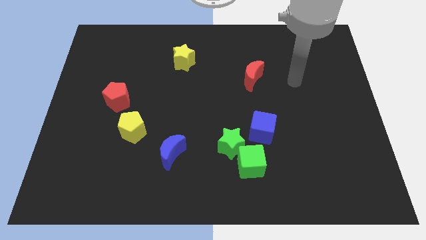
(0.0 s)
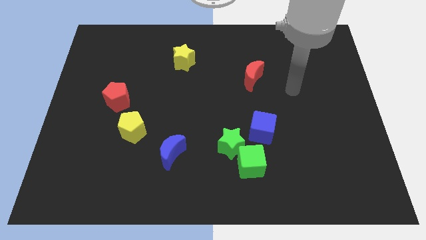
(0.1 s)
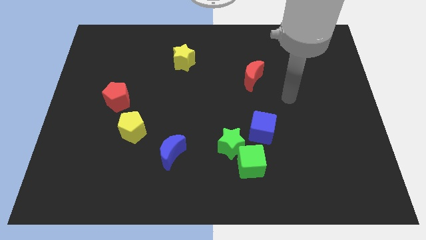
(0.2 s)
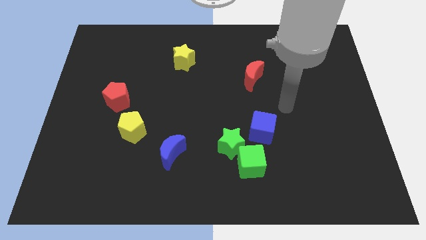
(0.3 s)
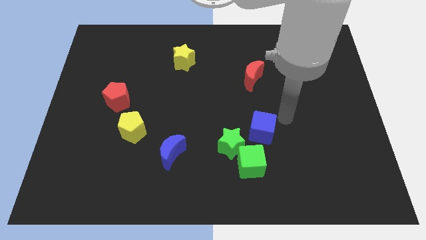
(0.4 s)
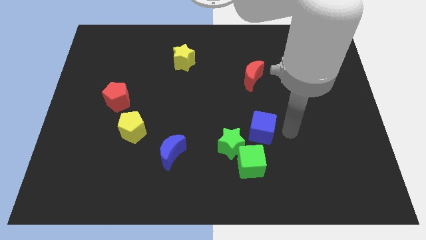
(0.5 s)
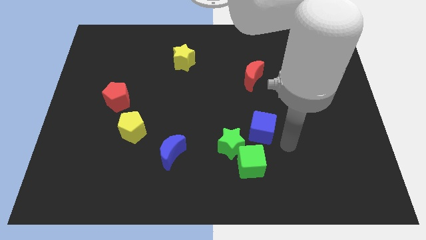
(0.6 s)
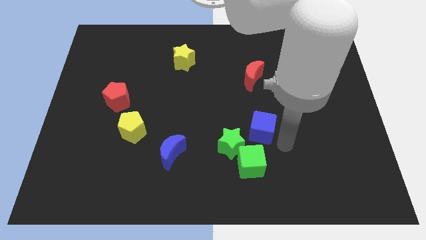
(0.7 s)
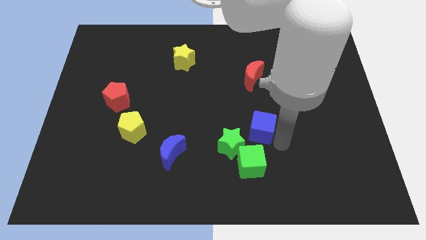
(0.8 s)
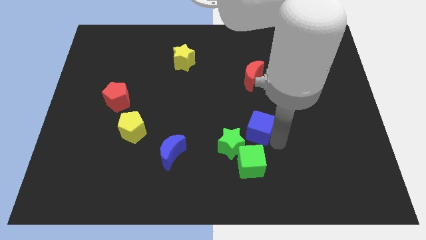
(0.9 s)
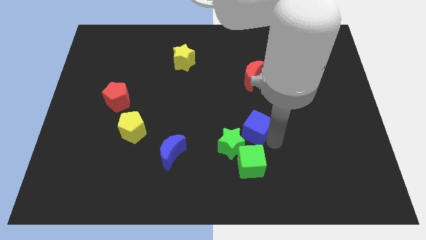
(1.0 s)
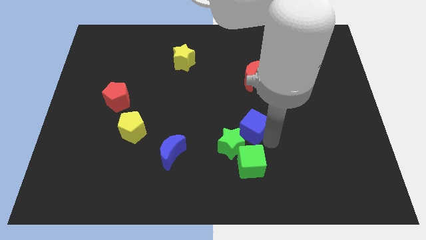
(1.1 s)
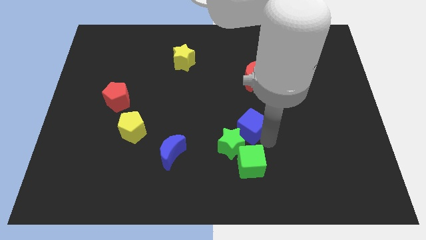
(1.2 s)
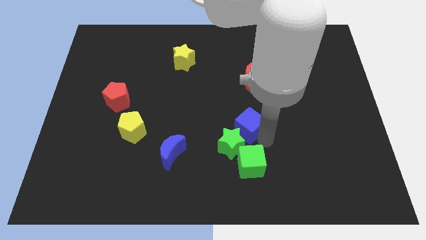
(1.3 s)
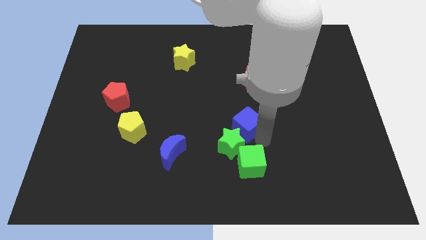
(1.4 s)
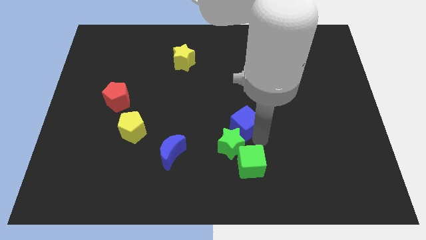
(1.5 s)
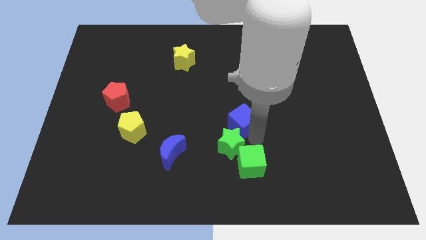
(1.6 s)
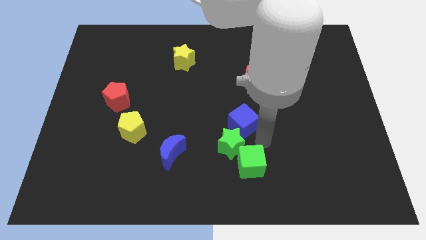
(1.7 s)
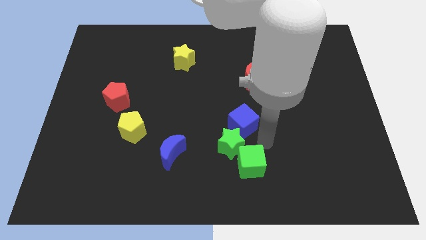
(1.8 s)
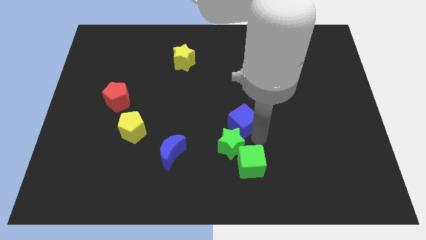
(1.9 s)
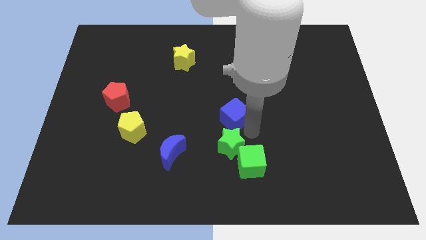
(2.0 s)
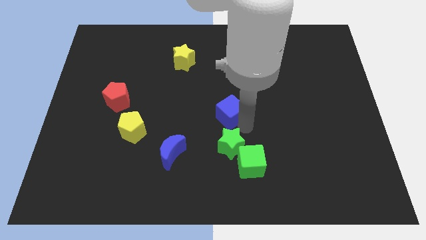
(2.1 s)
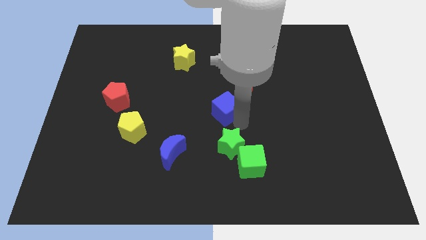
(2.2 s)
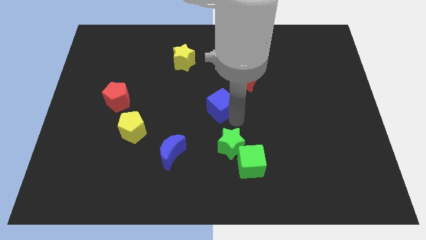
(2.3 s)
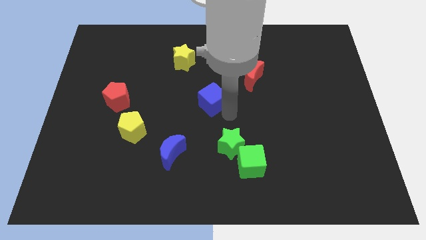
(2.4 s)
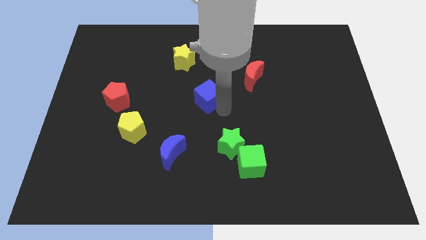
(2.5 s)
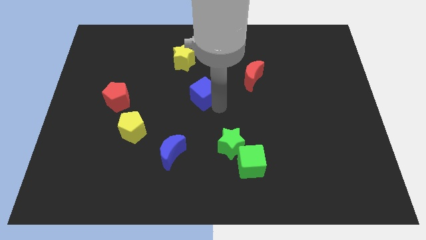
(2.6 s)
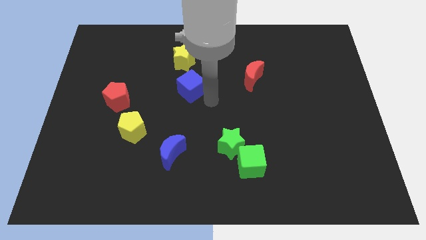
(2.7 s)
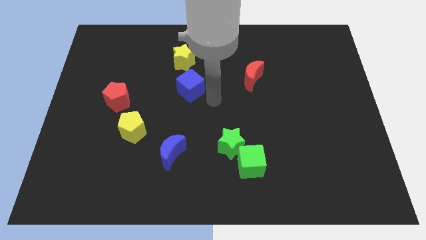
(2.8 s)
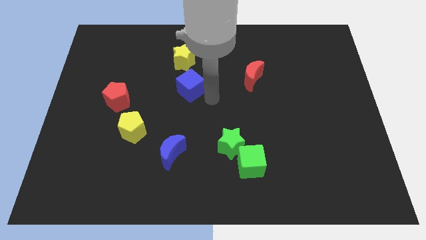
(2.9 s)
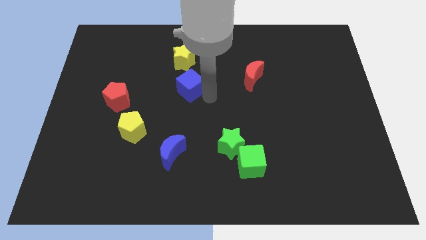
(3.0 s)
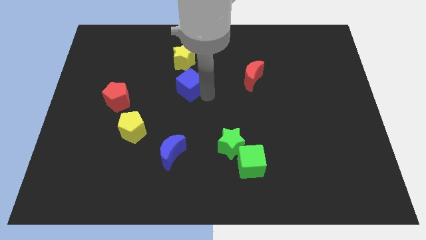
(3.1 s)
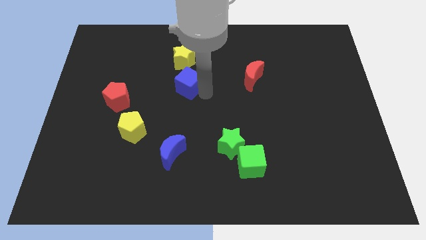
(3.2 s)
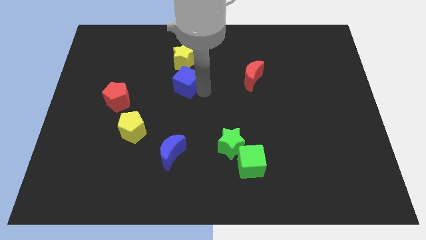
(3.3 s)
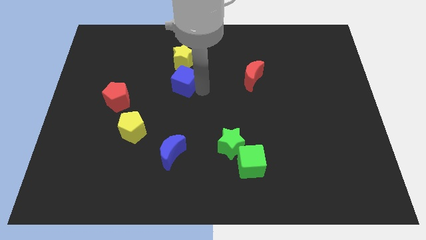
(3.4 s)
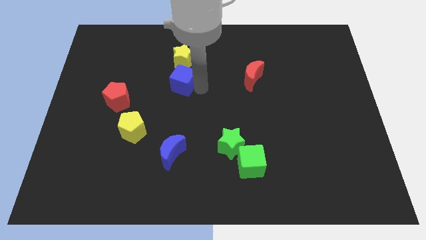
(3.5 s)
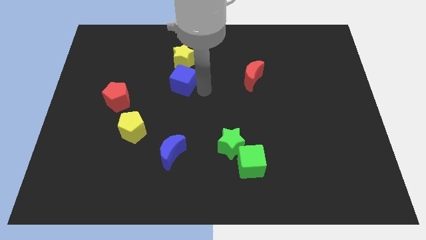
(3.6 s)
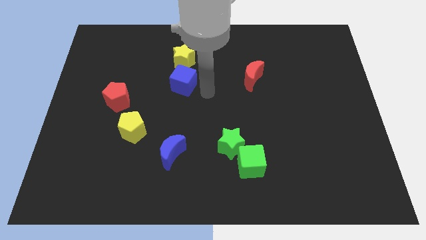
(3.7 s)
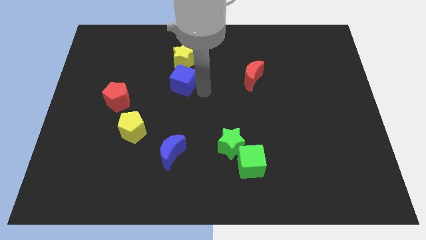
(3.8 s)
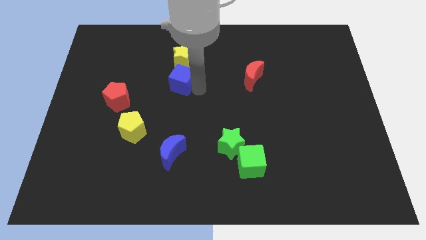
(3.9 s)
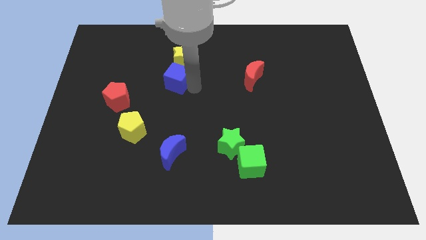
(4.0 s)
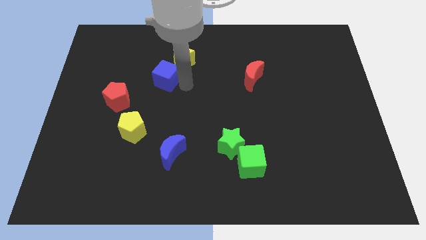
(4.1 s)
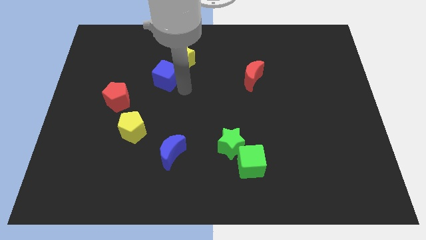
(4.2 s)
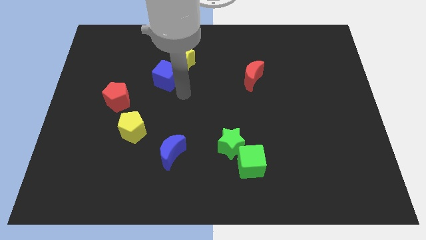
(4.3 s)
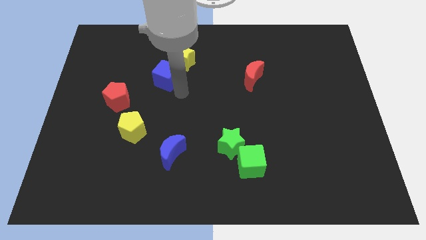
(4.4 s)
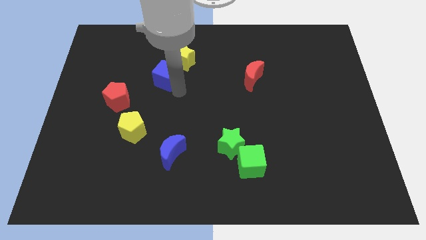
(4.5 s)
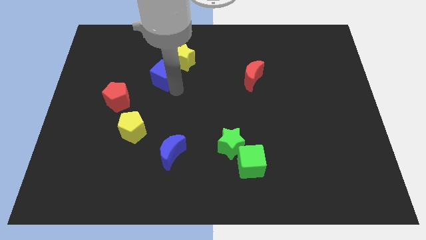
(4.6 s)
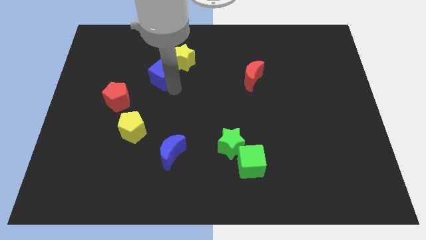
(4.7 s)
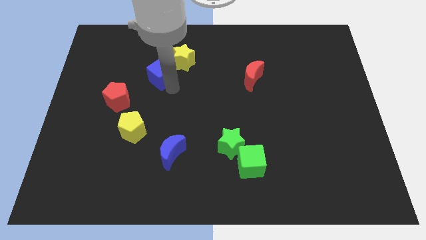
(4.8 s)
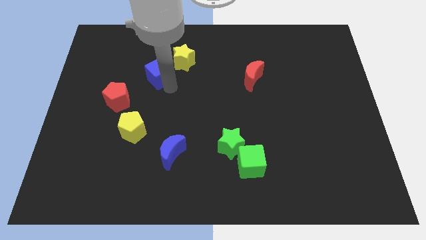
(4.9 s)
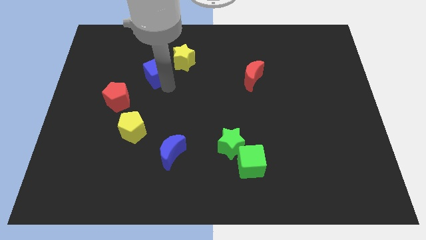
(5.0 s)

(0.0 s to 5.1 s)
push the blue cube just left of the yellow star

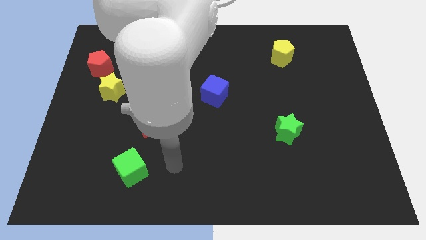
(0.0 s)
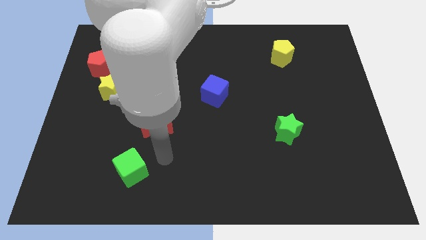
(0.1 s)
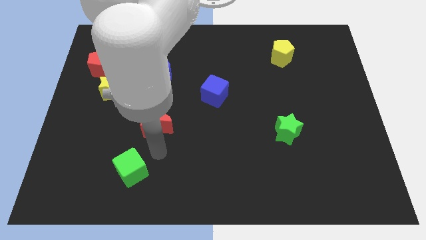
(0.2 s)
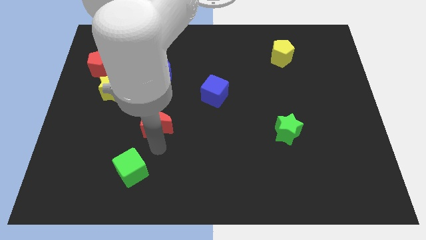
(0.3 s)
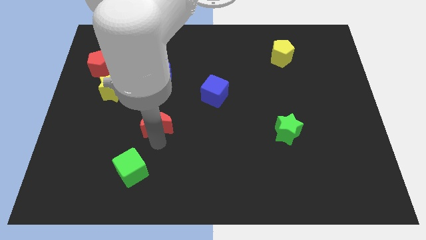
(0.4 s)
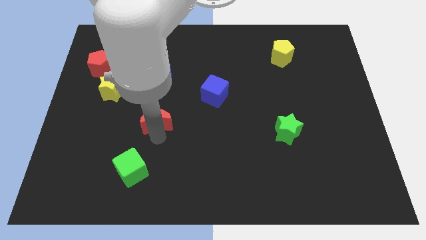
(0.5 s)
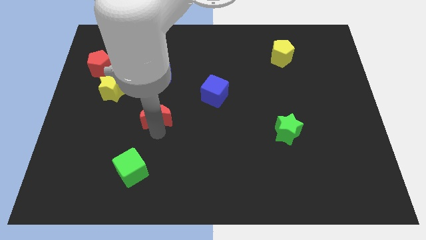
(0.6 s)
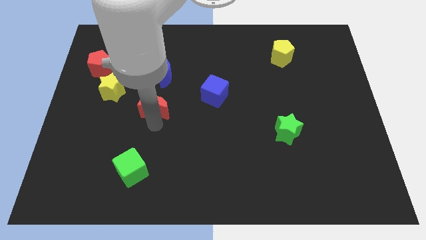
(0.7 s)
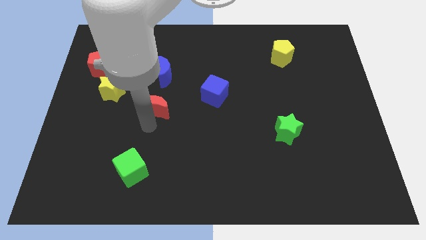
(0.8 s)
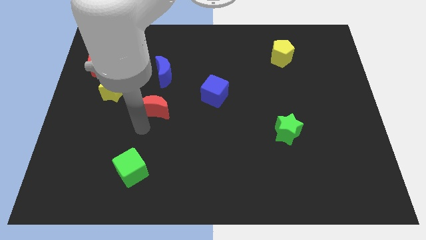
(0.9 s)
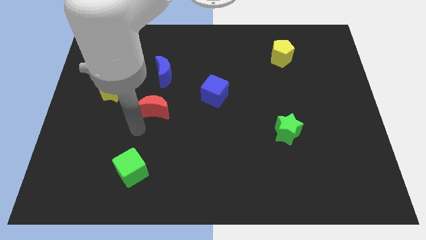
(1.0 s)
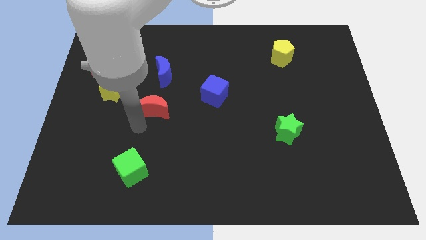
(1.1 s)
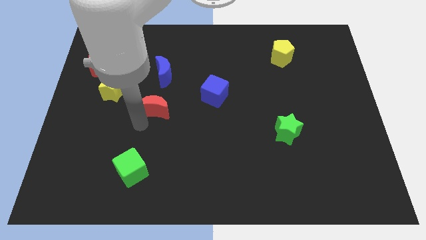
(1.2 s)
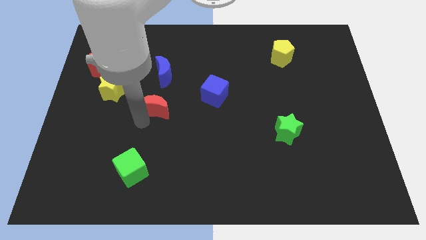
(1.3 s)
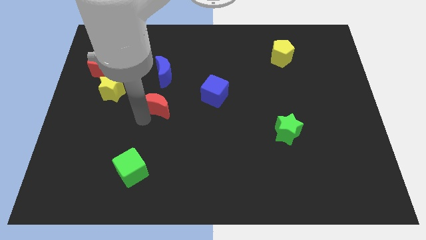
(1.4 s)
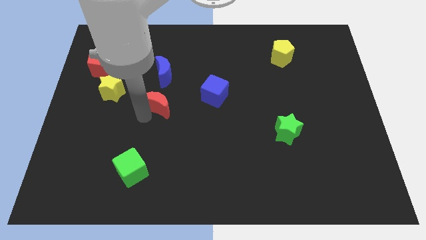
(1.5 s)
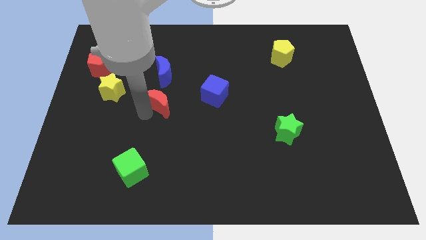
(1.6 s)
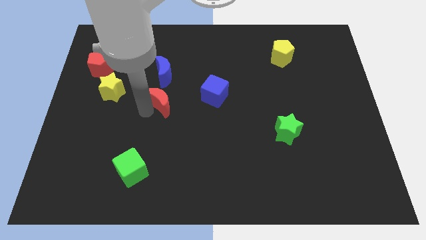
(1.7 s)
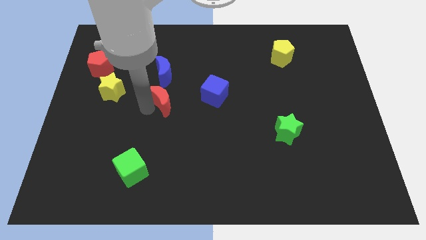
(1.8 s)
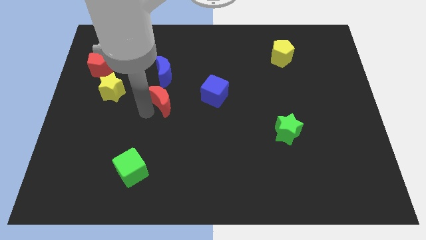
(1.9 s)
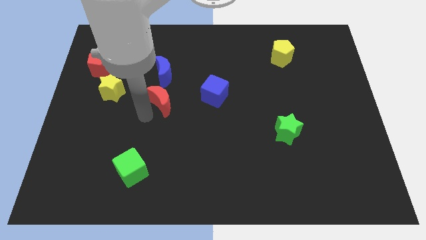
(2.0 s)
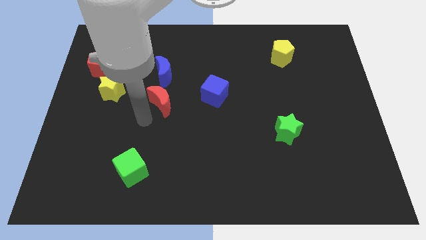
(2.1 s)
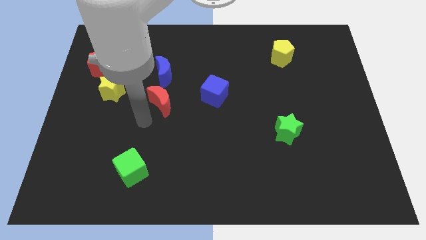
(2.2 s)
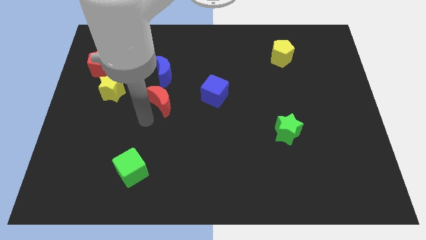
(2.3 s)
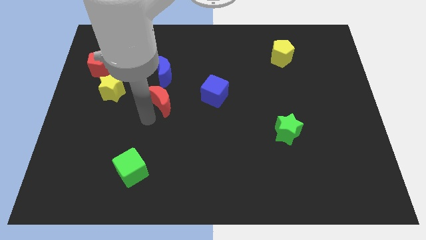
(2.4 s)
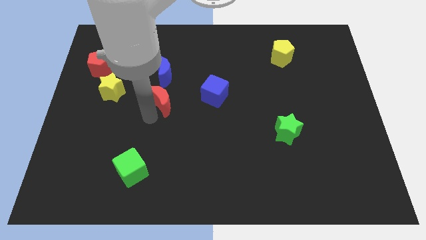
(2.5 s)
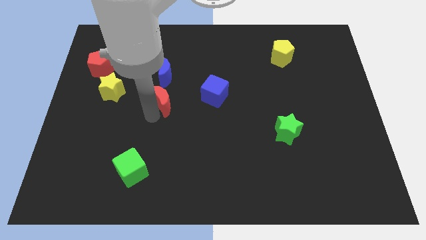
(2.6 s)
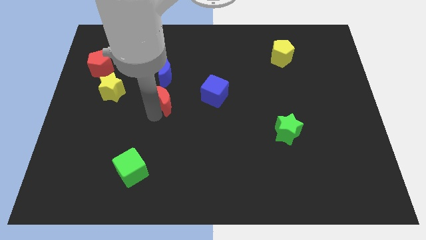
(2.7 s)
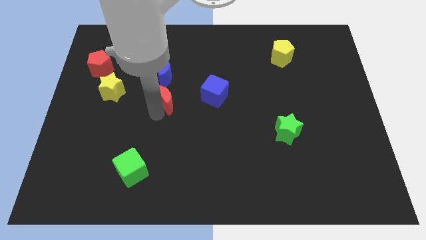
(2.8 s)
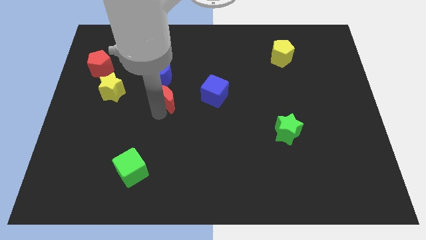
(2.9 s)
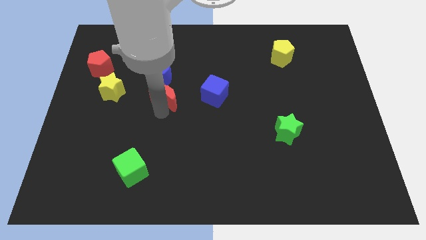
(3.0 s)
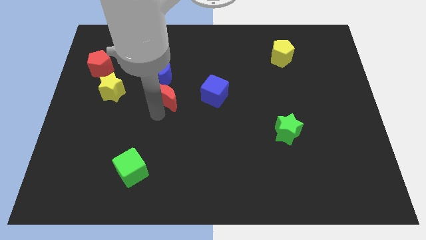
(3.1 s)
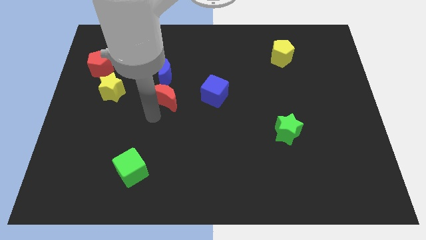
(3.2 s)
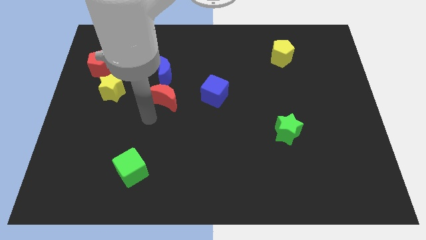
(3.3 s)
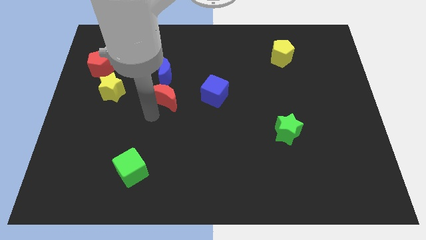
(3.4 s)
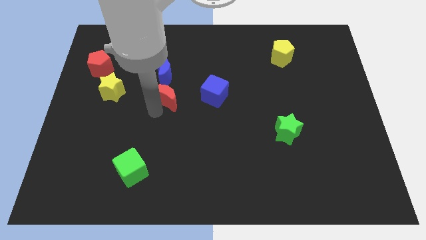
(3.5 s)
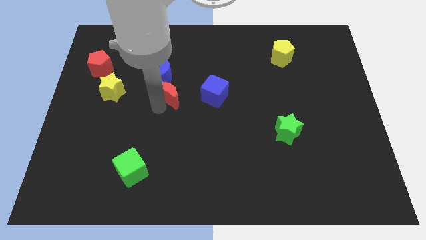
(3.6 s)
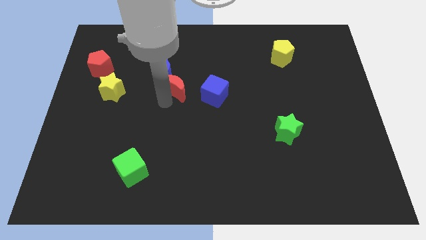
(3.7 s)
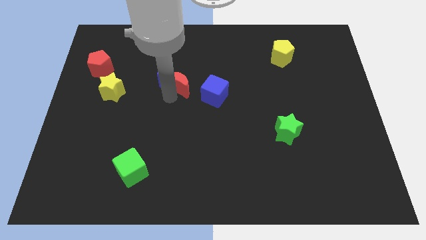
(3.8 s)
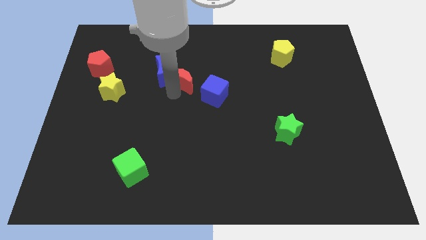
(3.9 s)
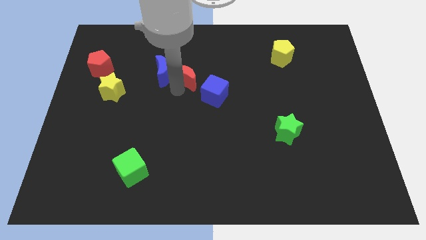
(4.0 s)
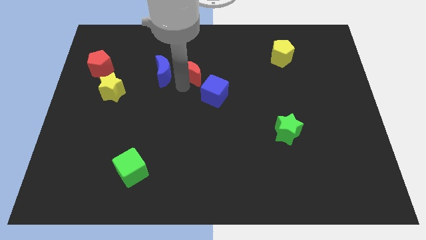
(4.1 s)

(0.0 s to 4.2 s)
push the red moon diagonally up and to the right of the blue moon
